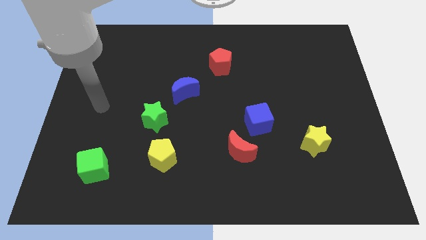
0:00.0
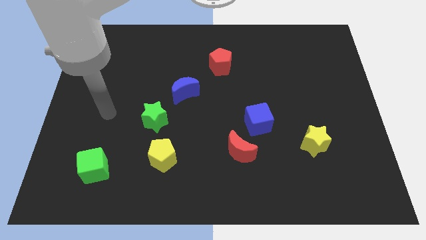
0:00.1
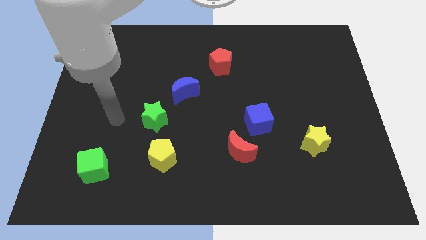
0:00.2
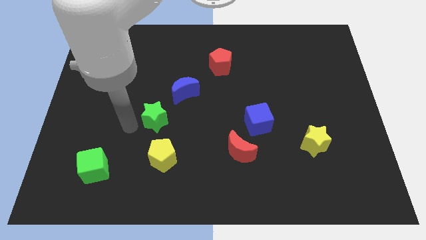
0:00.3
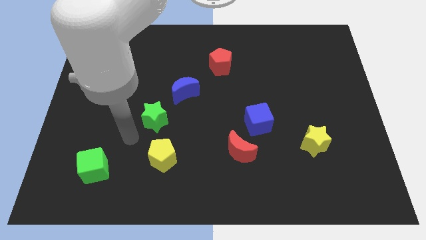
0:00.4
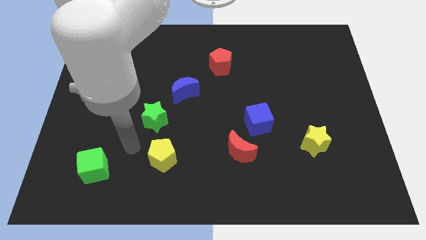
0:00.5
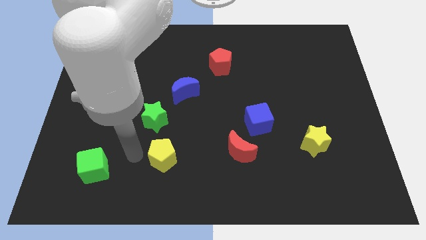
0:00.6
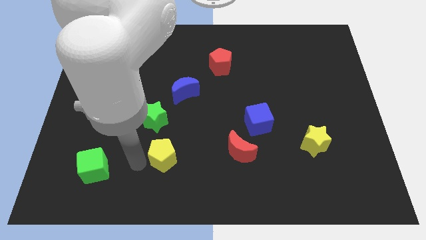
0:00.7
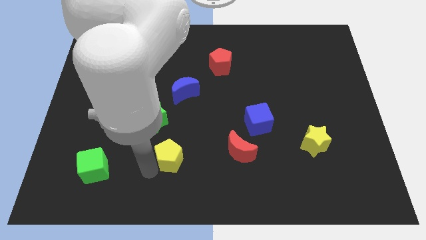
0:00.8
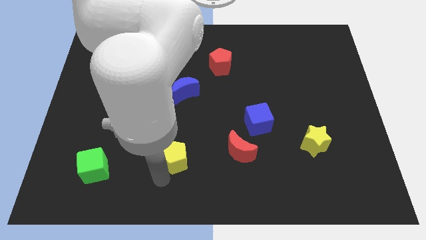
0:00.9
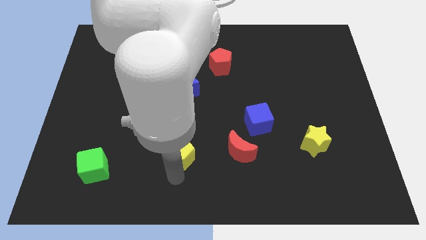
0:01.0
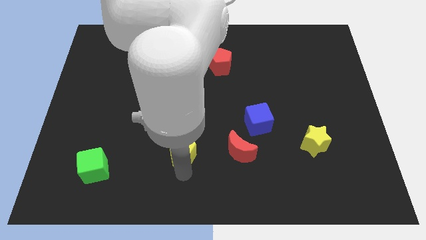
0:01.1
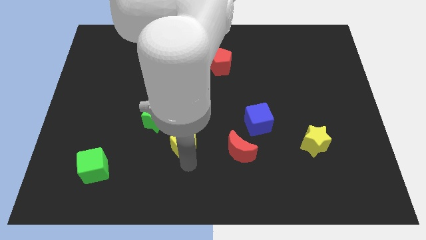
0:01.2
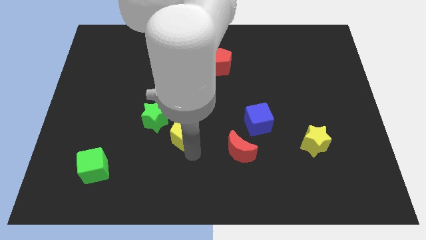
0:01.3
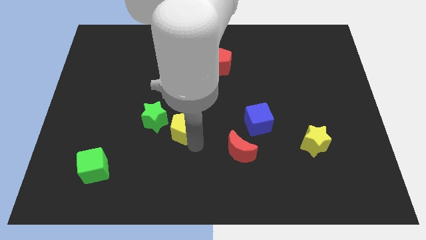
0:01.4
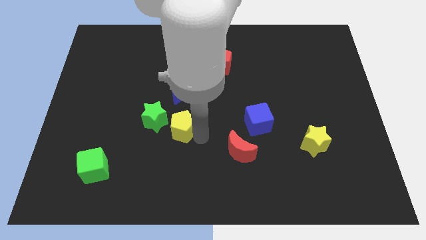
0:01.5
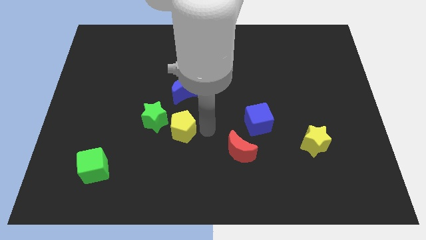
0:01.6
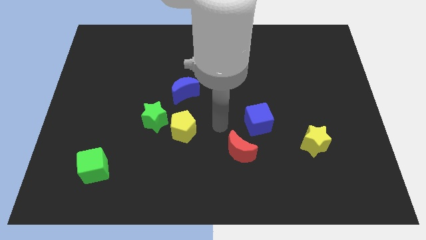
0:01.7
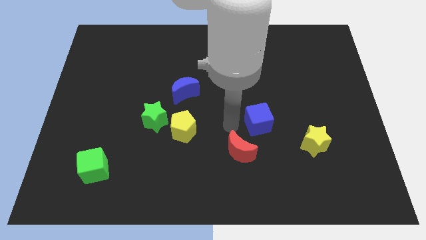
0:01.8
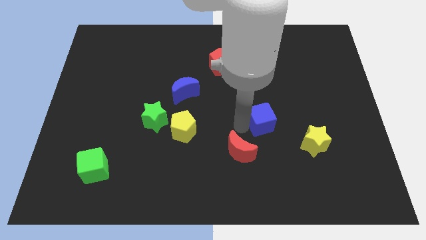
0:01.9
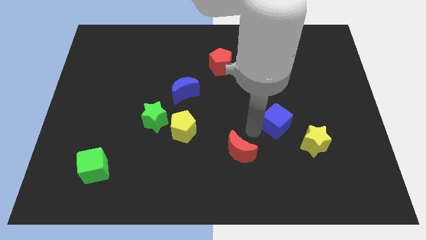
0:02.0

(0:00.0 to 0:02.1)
pull the red moon apart from the blue cube

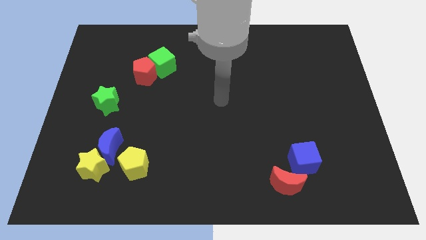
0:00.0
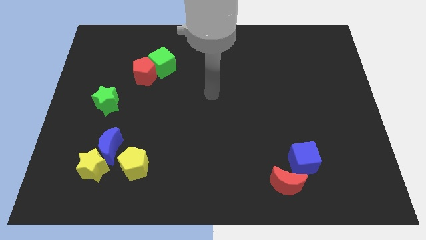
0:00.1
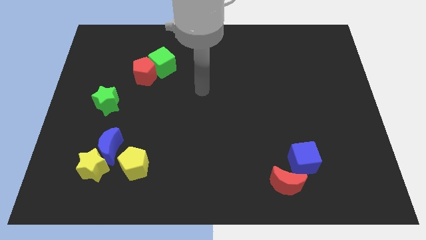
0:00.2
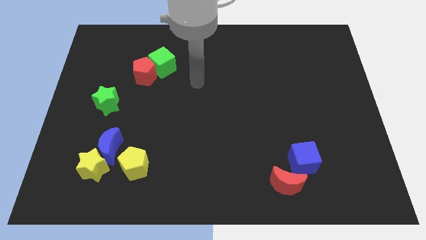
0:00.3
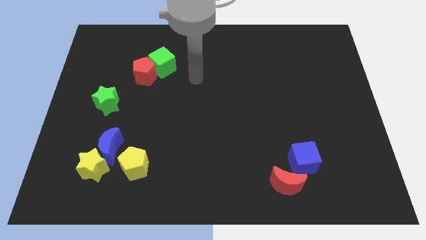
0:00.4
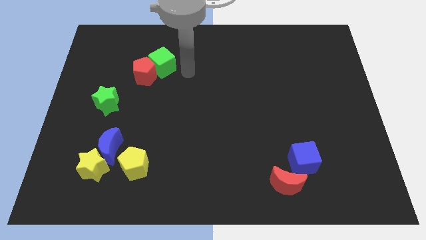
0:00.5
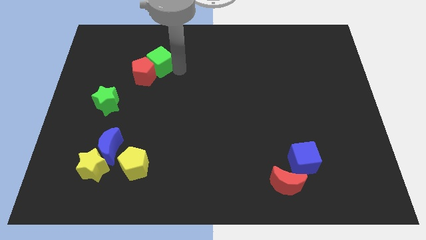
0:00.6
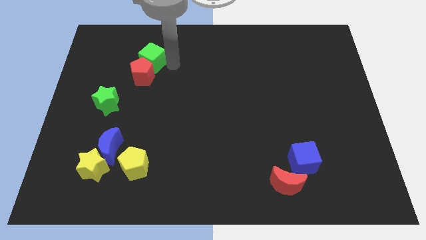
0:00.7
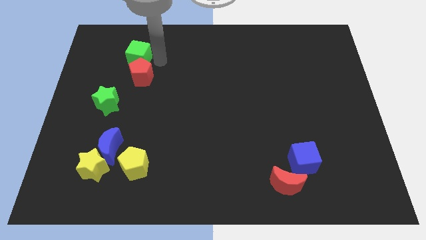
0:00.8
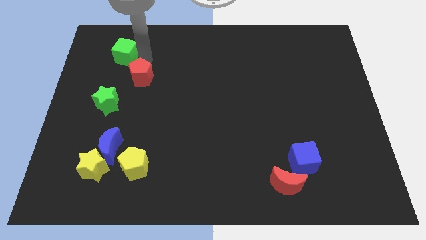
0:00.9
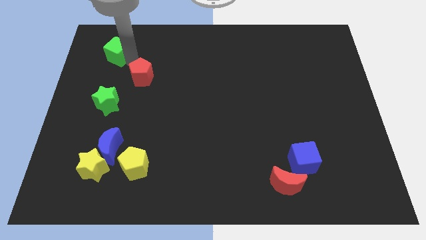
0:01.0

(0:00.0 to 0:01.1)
move the red pentagon away from the green cube

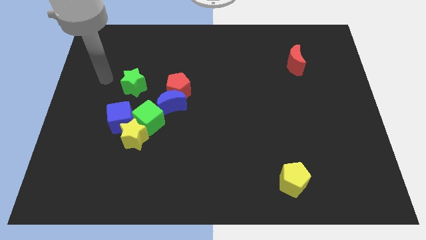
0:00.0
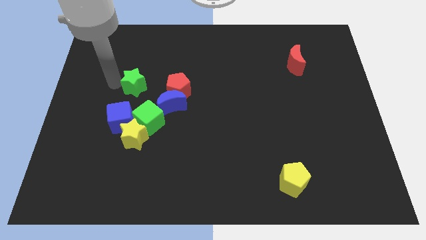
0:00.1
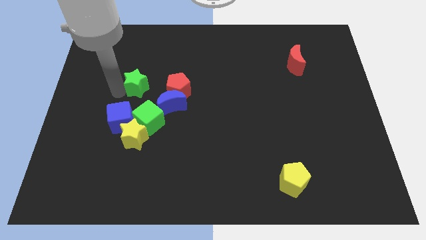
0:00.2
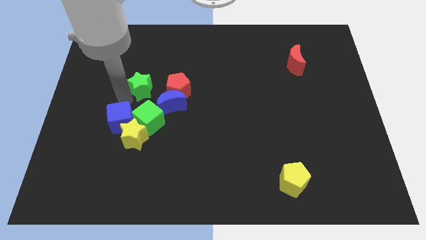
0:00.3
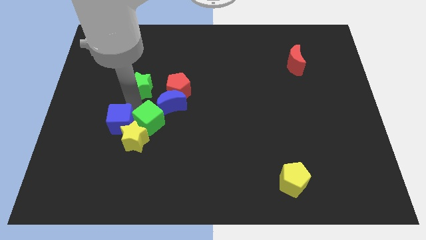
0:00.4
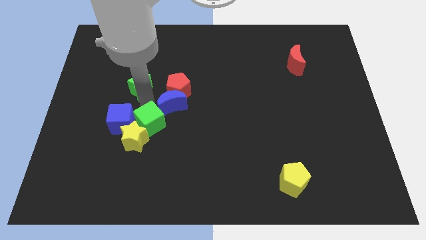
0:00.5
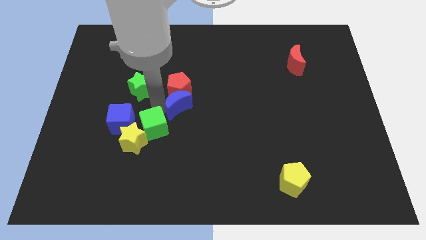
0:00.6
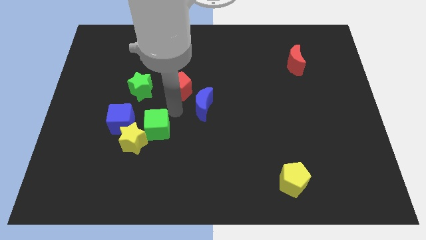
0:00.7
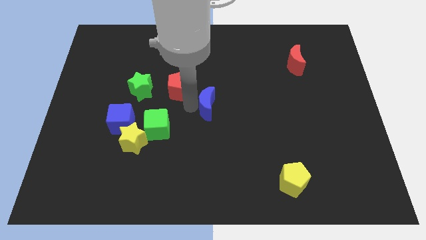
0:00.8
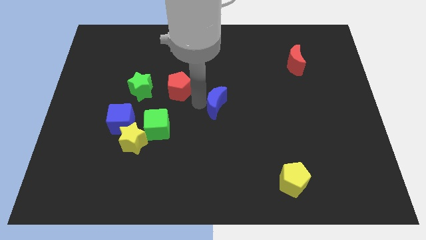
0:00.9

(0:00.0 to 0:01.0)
pull the red pentagon apart from the blue moon

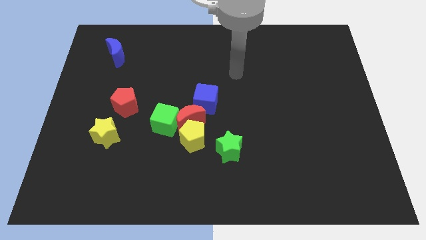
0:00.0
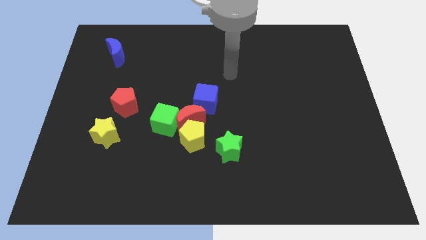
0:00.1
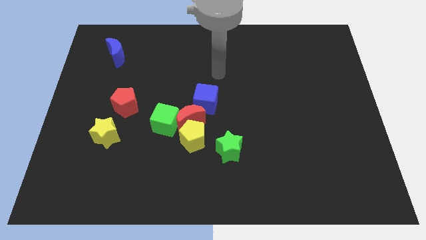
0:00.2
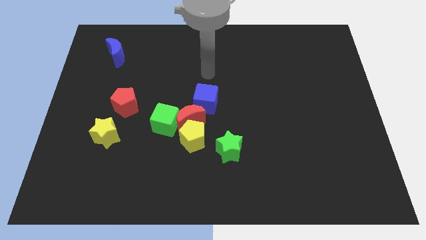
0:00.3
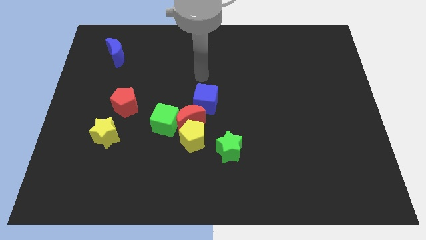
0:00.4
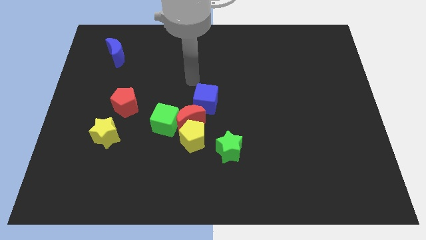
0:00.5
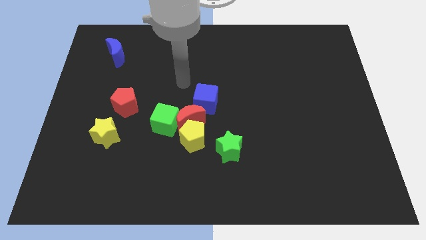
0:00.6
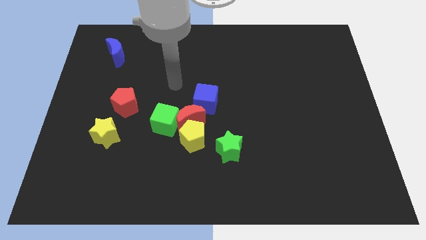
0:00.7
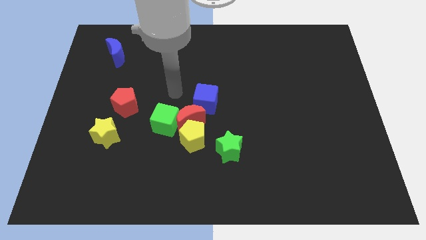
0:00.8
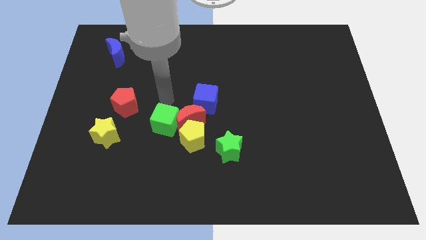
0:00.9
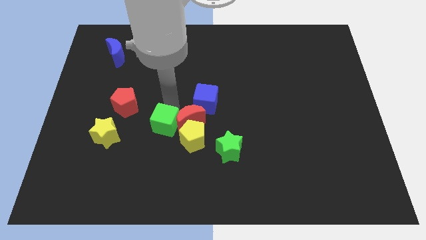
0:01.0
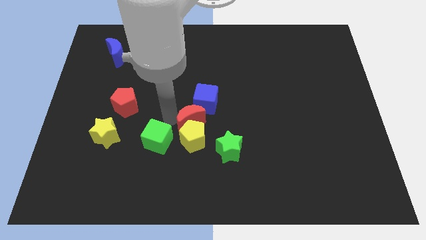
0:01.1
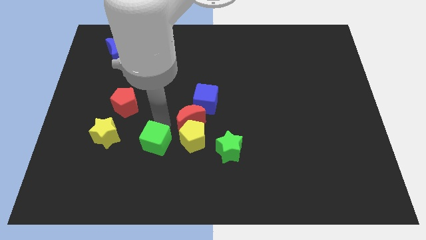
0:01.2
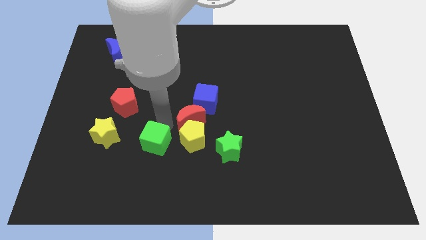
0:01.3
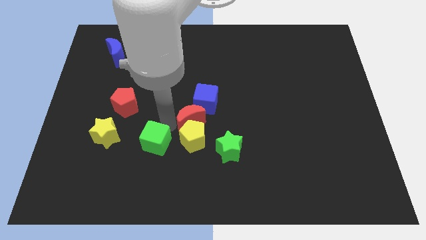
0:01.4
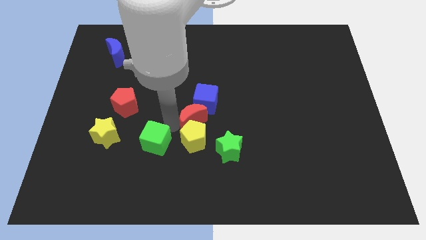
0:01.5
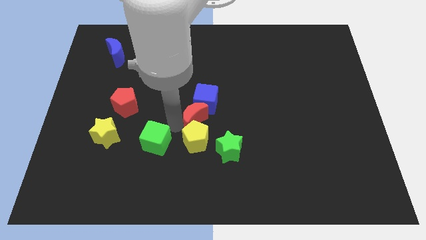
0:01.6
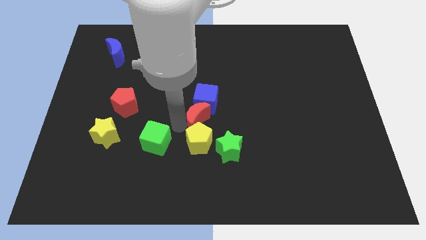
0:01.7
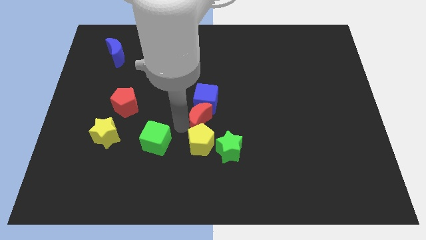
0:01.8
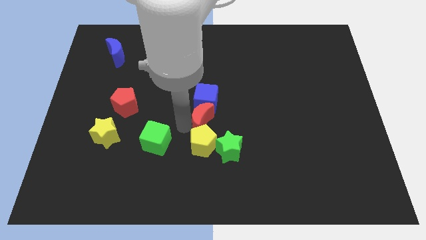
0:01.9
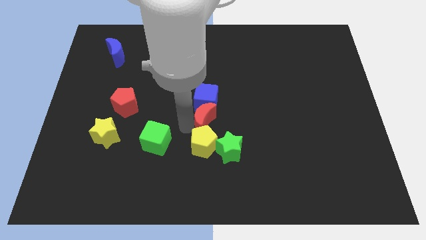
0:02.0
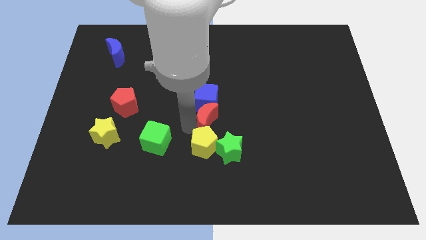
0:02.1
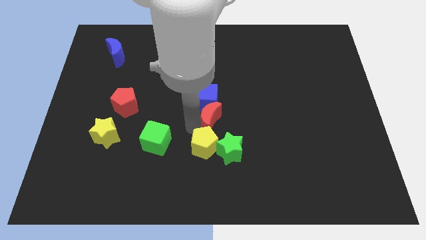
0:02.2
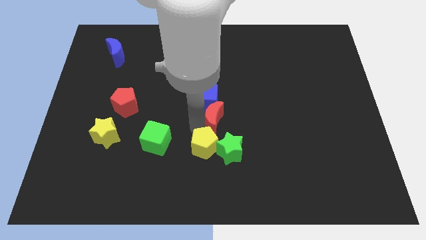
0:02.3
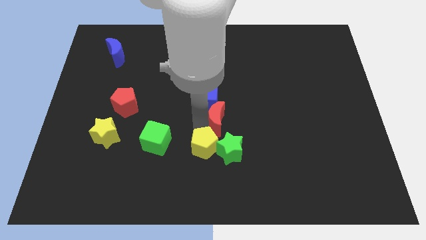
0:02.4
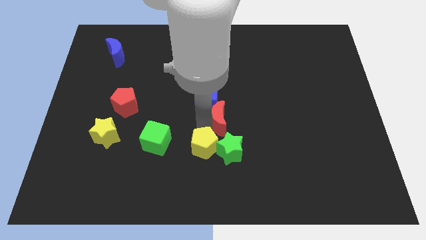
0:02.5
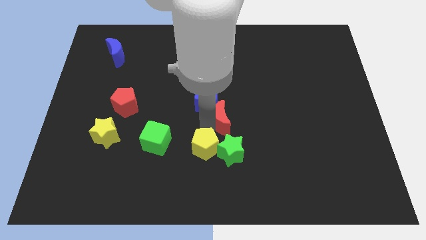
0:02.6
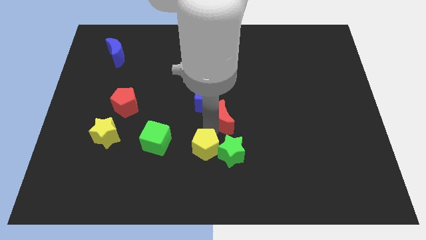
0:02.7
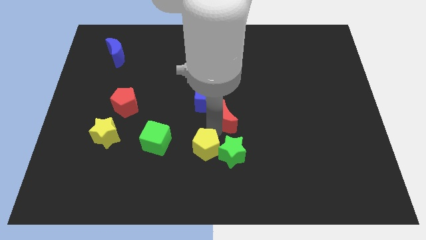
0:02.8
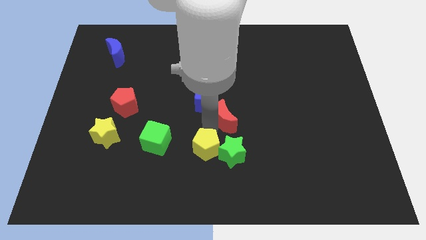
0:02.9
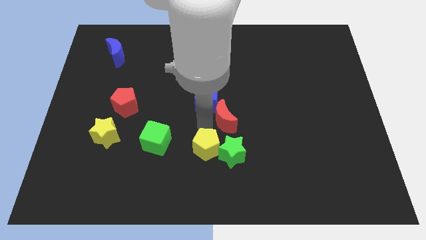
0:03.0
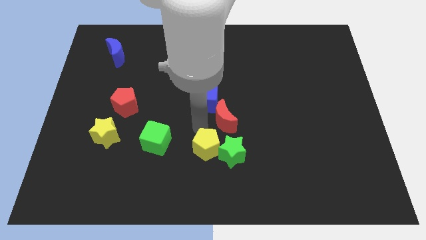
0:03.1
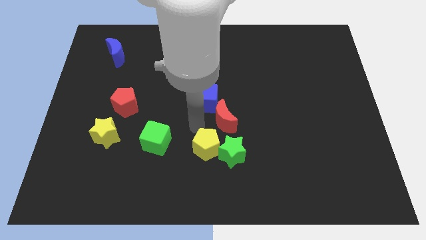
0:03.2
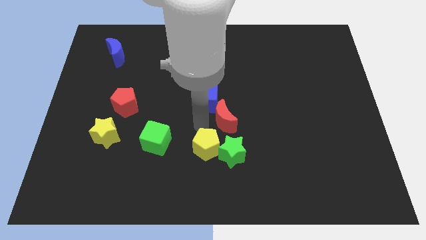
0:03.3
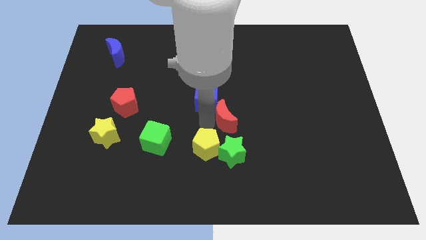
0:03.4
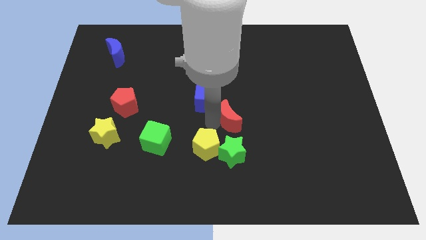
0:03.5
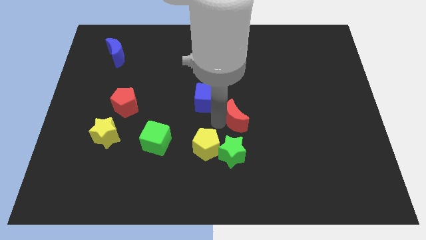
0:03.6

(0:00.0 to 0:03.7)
move the red moon away from the yellow pentagon, green cube, and blue cube

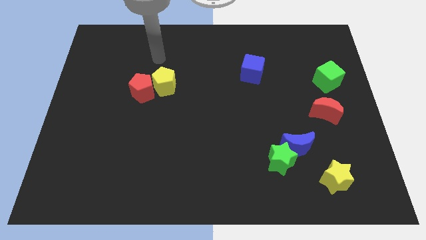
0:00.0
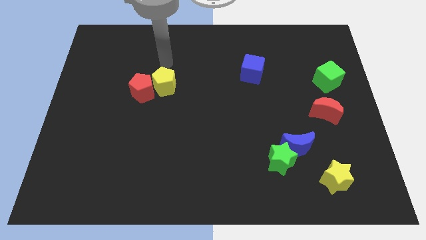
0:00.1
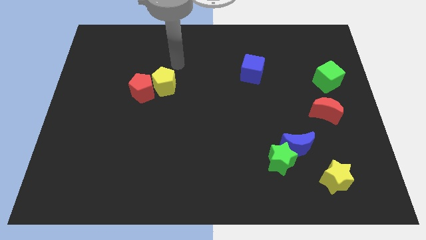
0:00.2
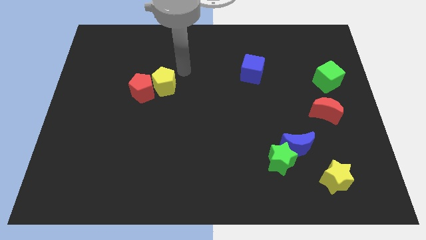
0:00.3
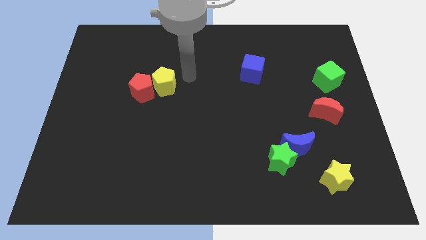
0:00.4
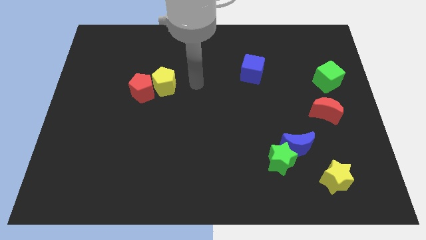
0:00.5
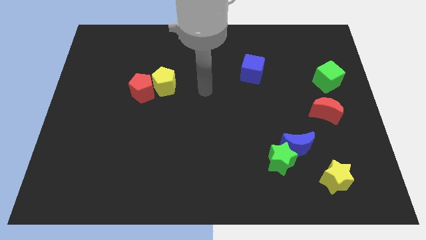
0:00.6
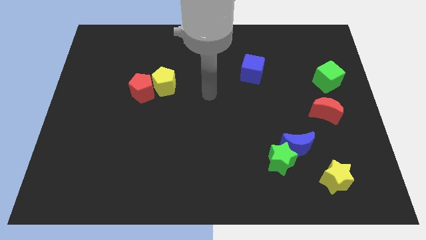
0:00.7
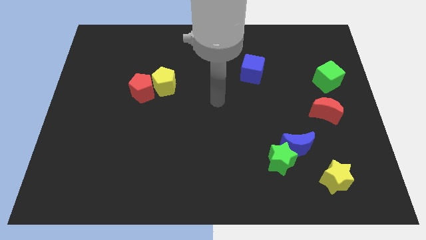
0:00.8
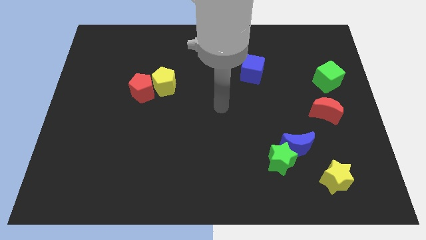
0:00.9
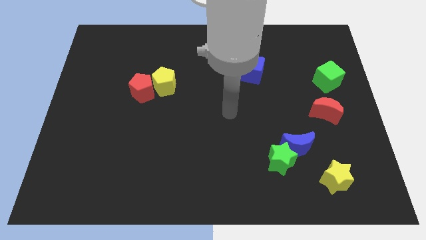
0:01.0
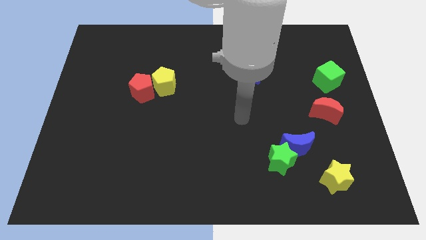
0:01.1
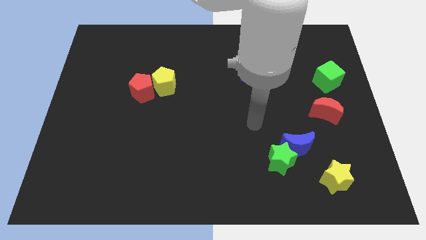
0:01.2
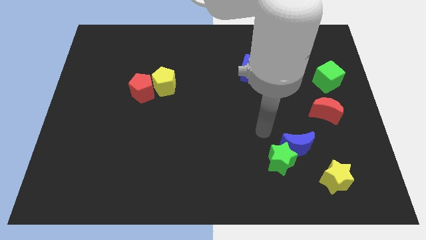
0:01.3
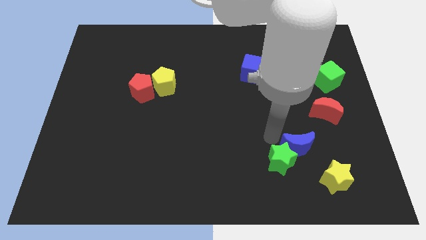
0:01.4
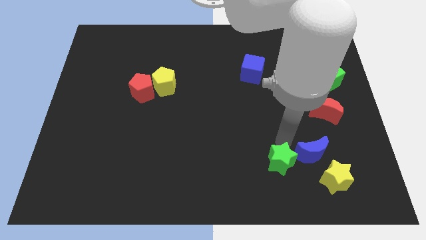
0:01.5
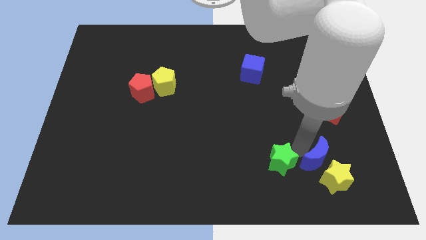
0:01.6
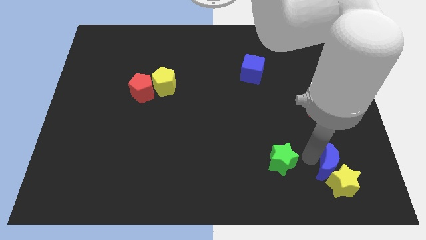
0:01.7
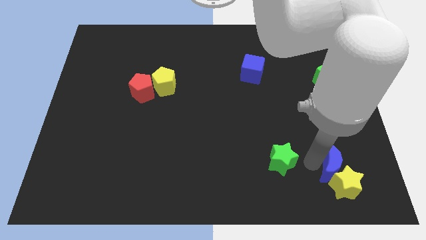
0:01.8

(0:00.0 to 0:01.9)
pull the green star apart from the blue moon
